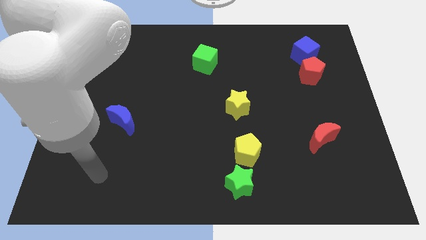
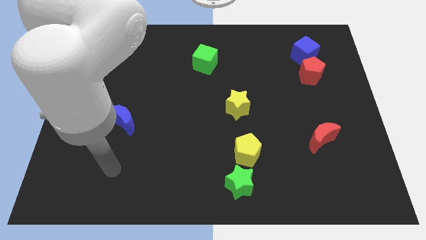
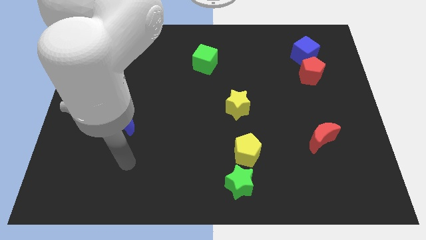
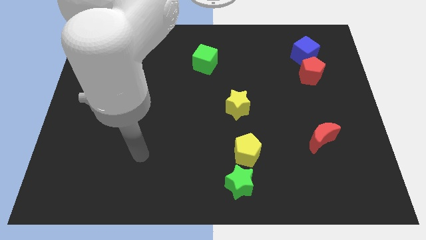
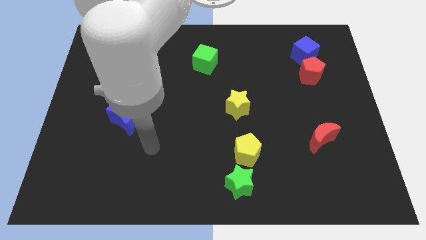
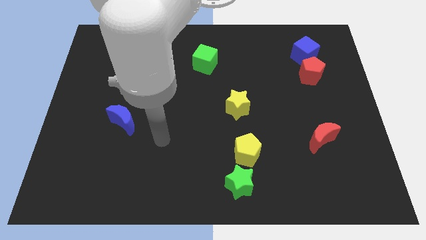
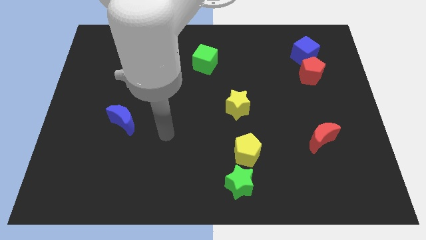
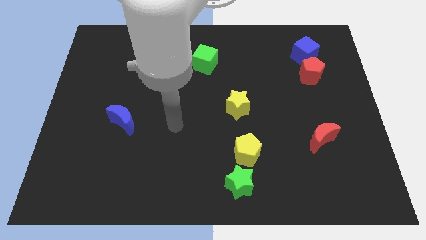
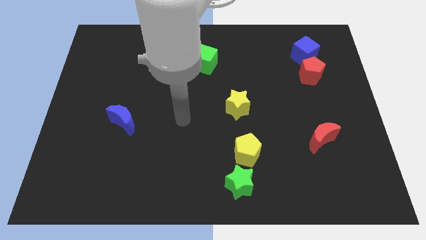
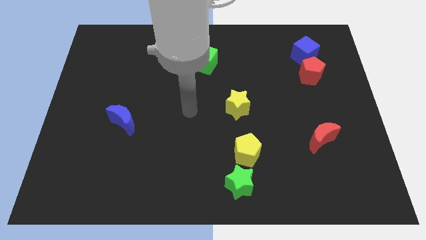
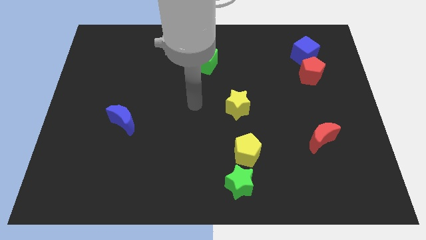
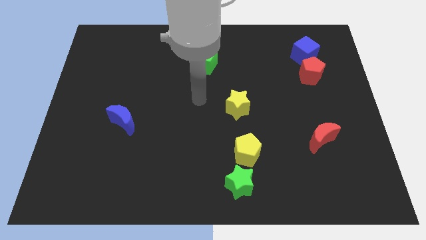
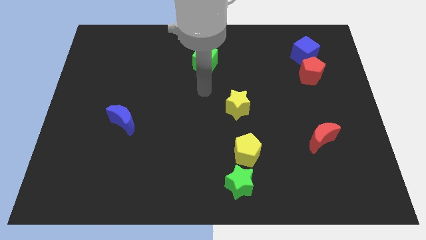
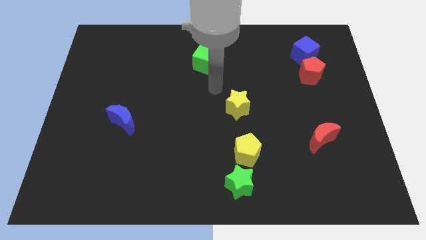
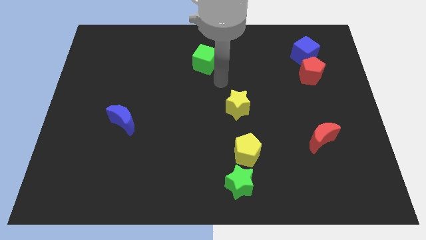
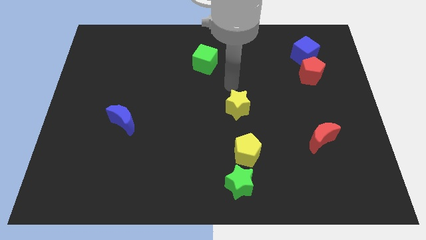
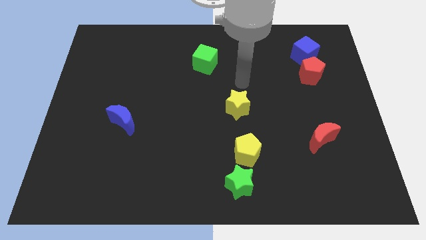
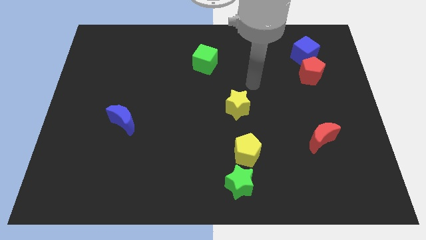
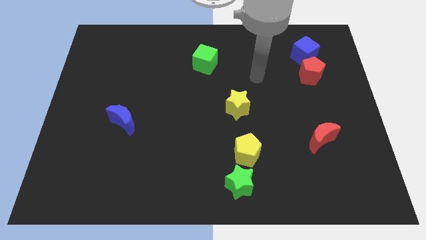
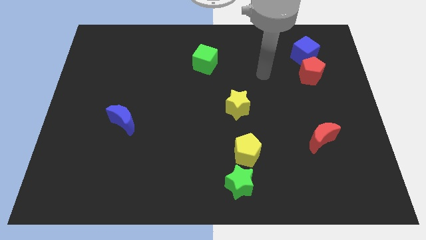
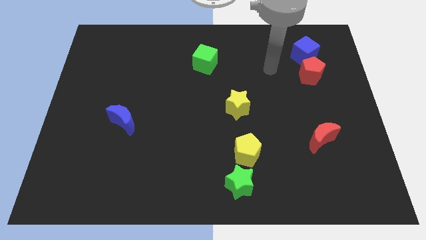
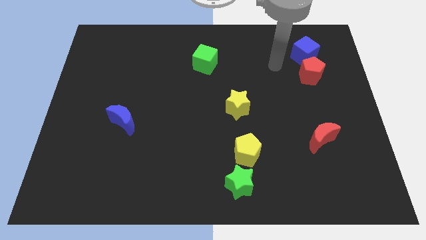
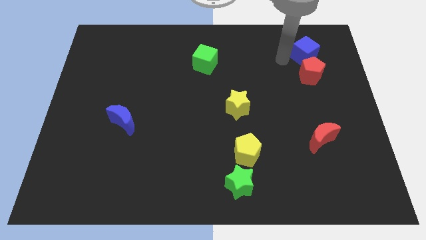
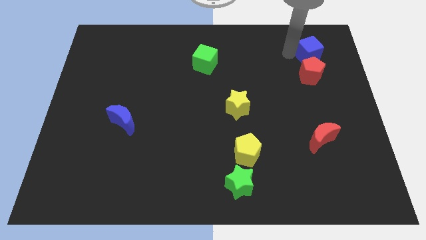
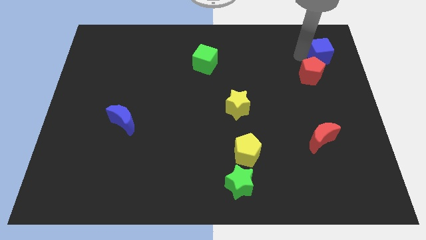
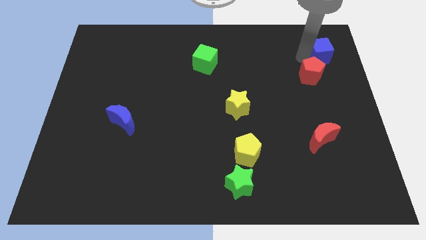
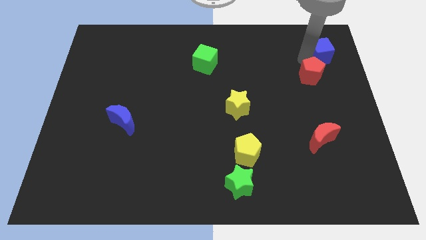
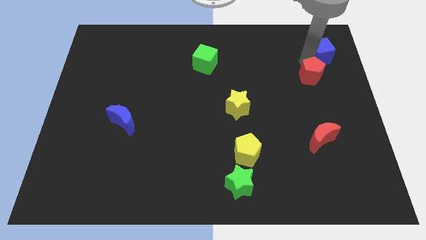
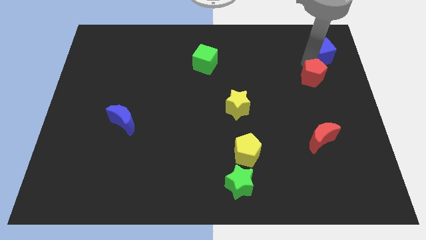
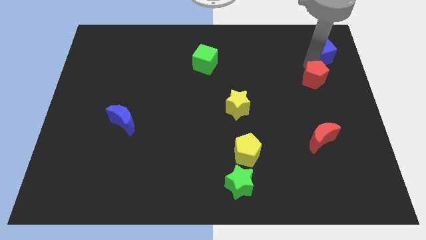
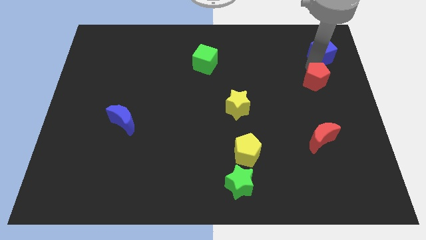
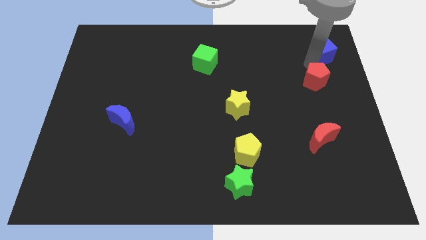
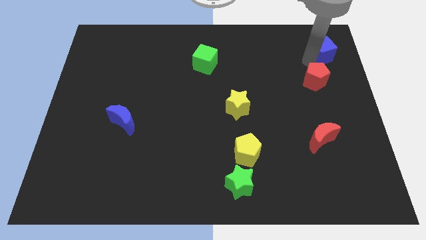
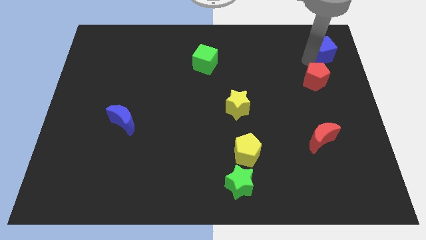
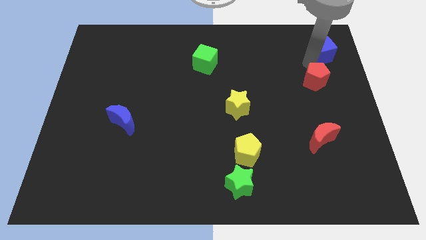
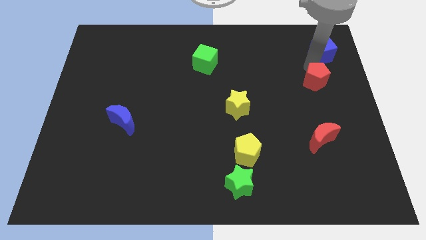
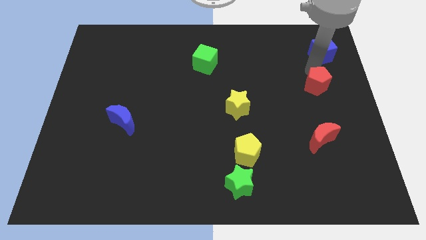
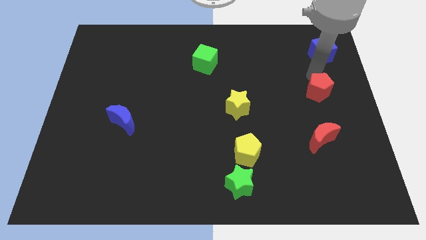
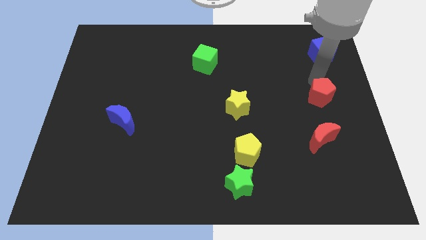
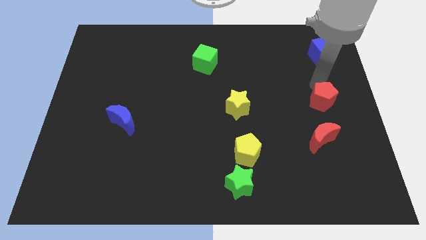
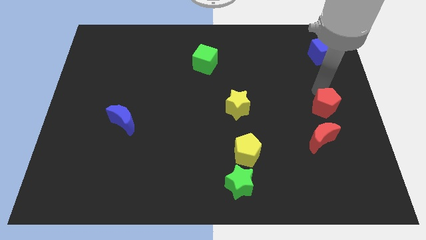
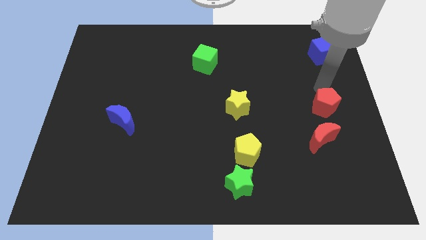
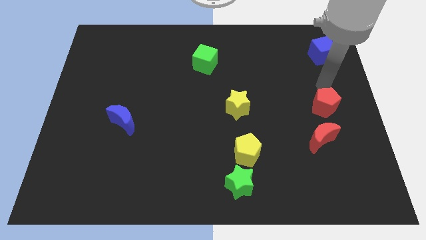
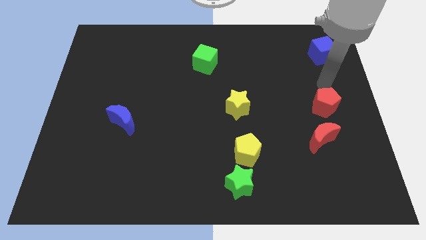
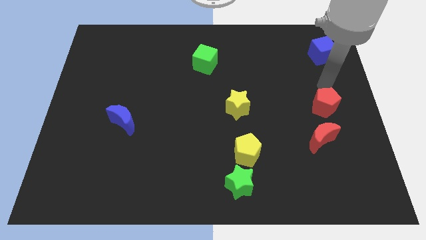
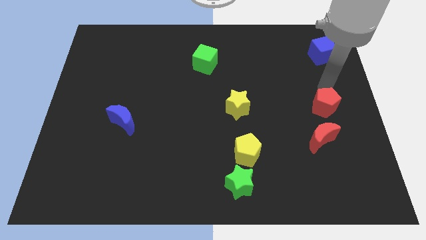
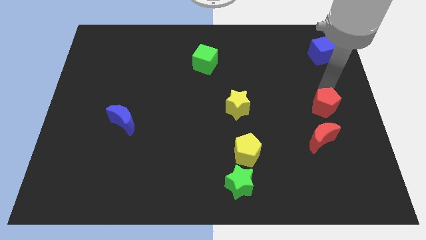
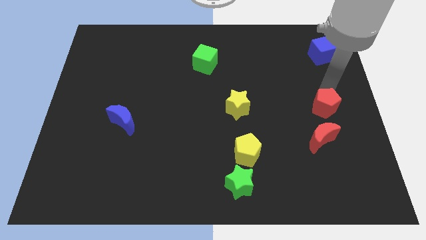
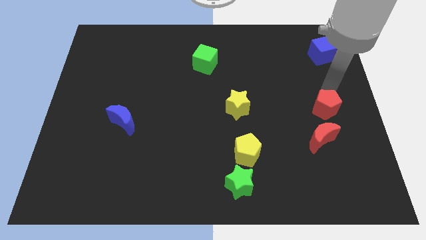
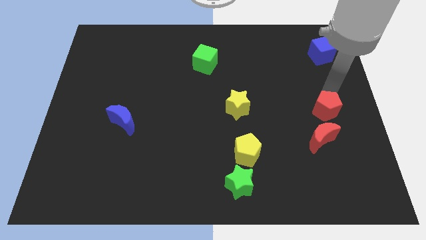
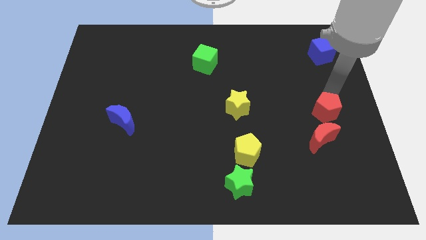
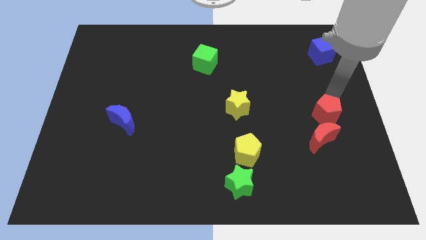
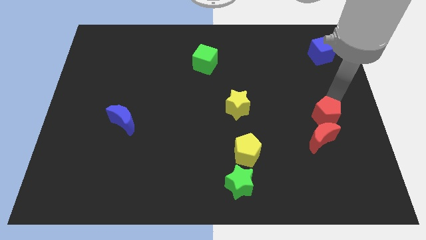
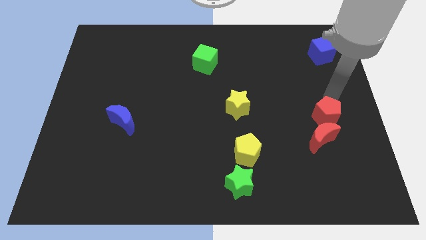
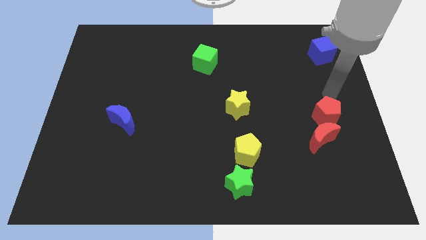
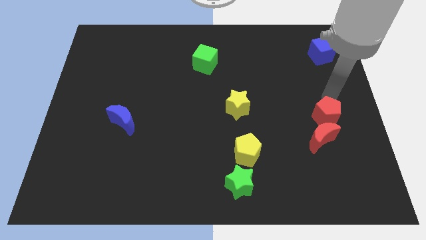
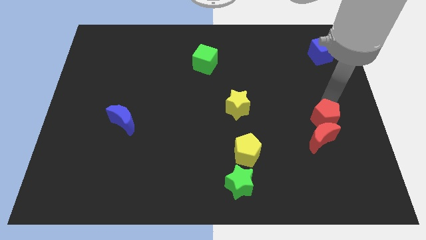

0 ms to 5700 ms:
put the red pentagon close to the red moon

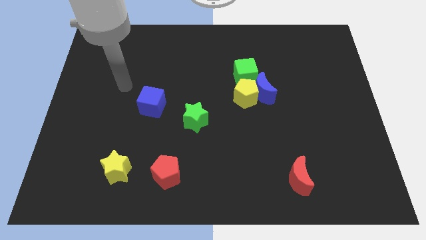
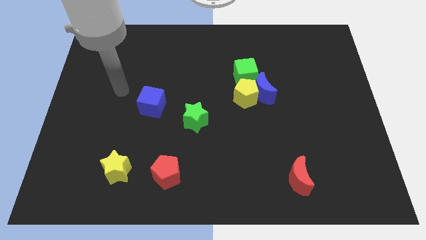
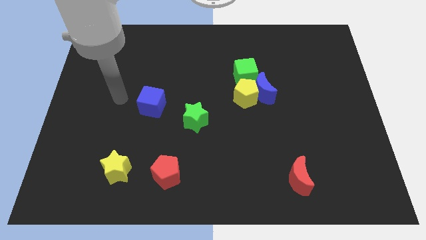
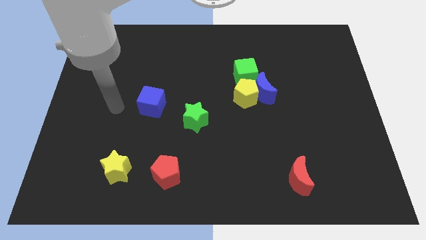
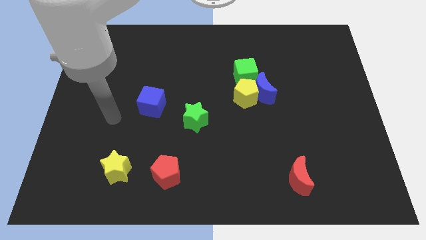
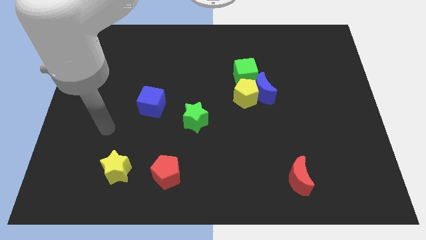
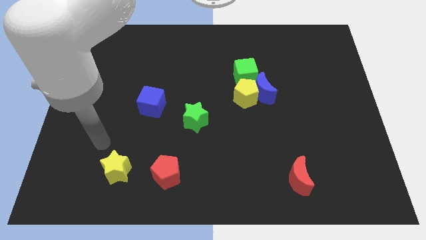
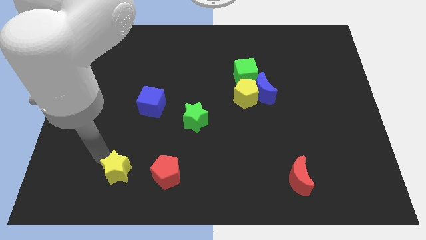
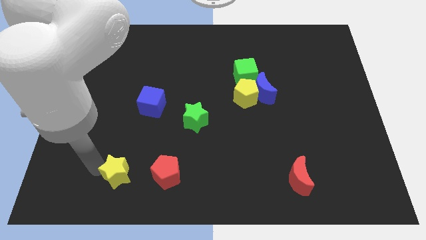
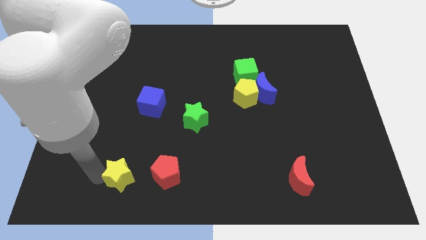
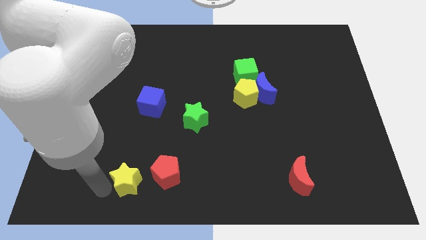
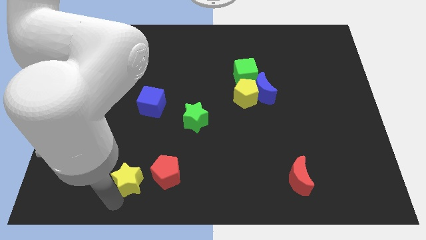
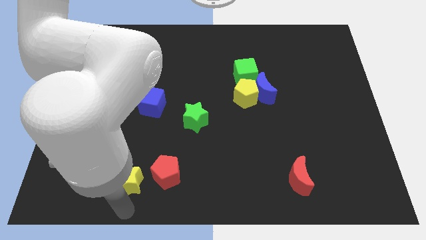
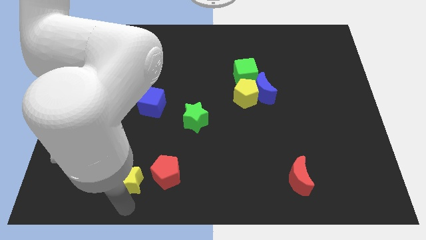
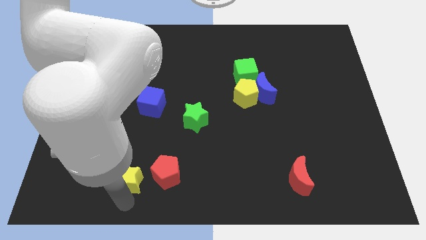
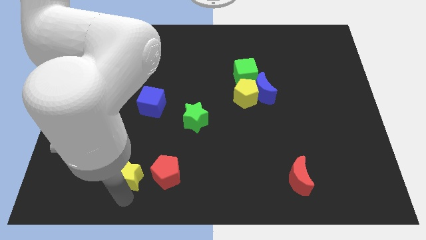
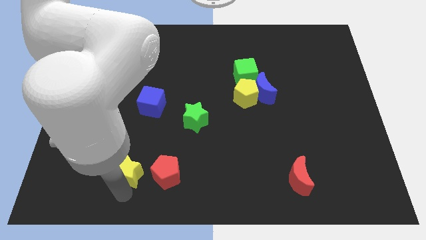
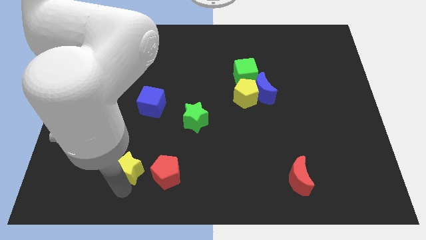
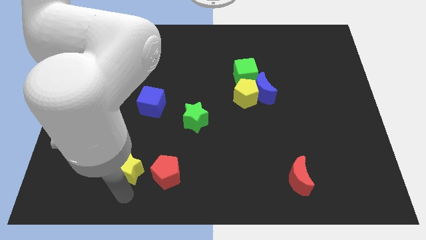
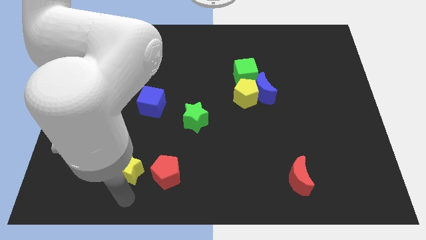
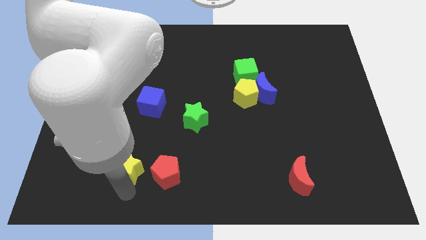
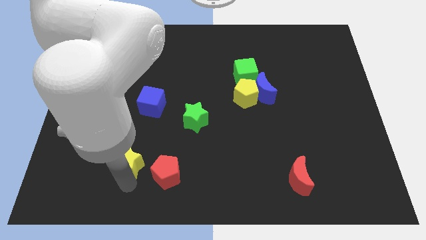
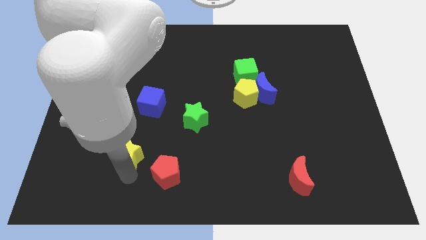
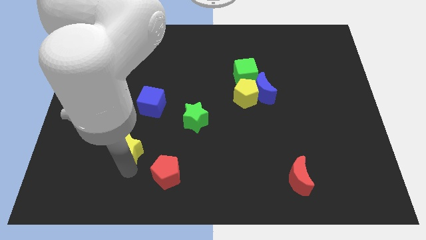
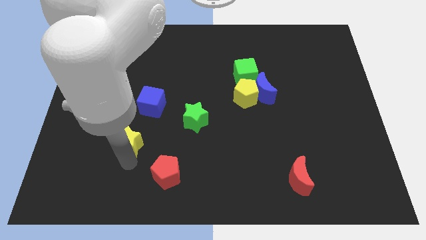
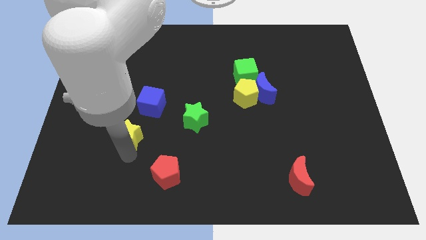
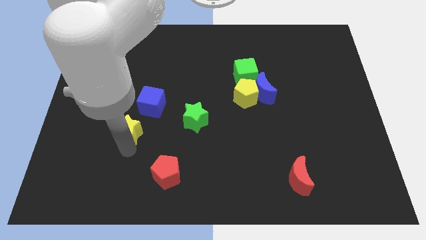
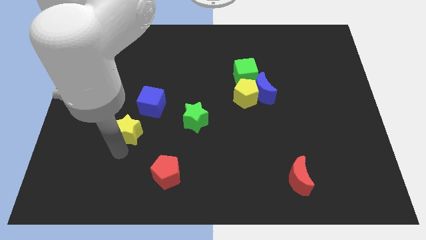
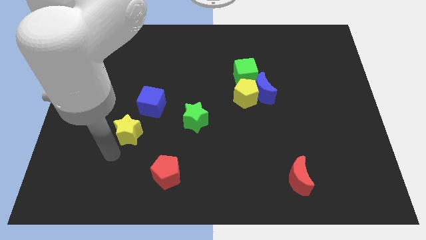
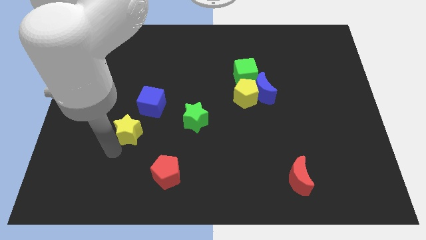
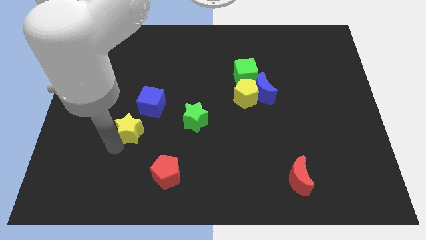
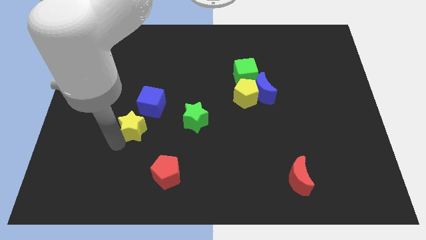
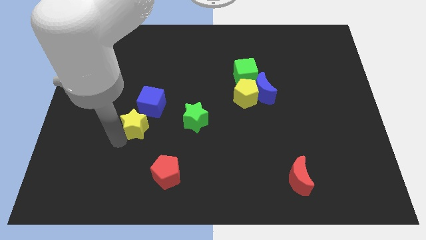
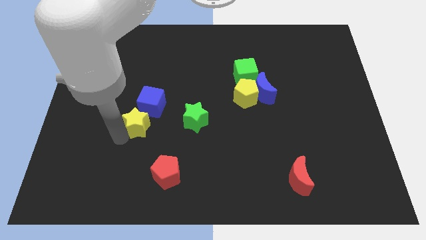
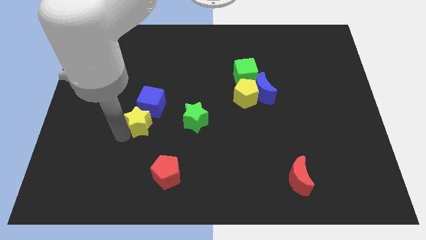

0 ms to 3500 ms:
move the yellow star close to the blue cube
